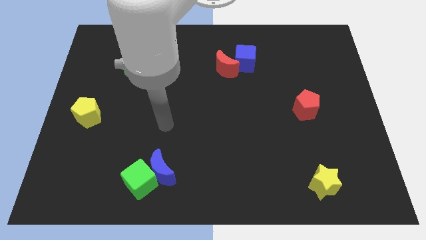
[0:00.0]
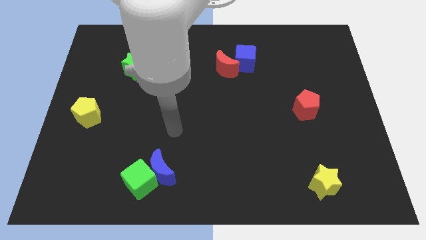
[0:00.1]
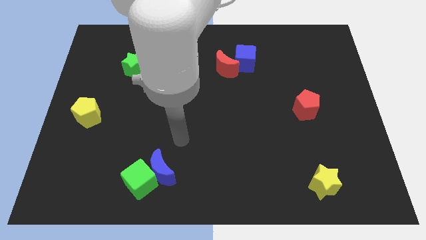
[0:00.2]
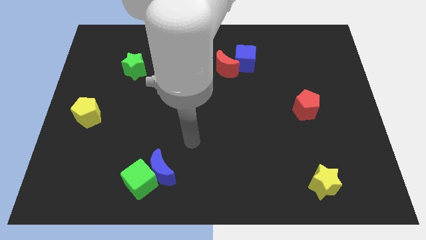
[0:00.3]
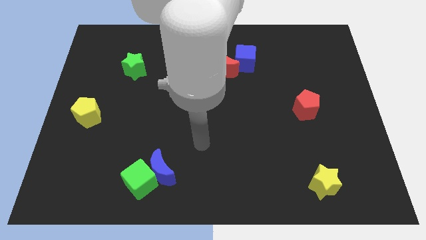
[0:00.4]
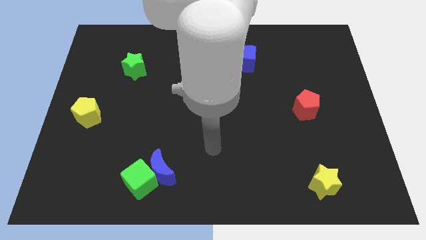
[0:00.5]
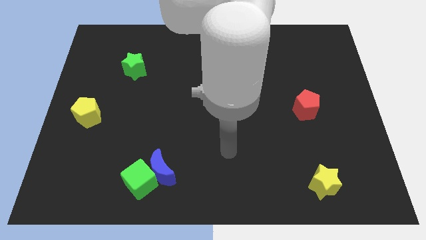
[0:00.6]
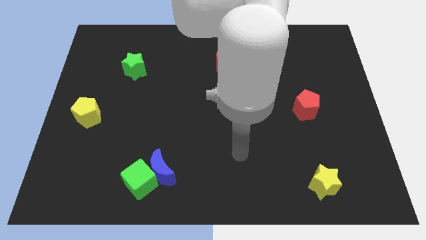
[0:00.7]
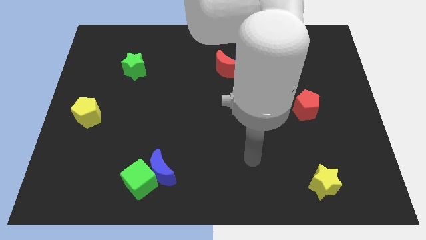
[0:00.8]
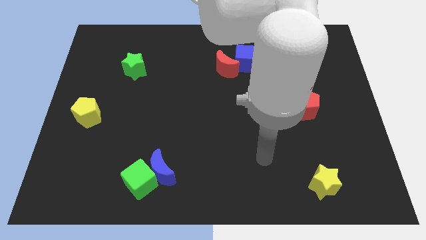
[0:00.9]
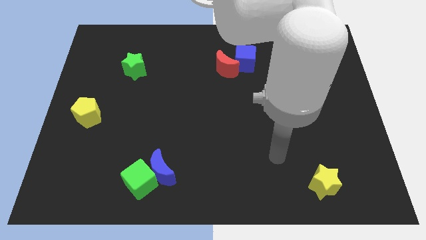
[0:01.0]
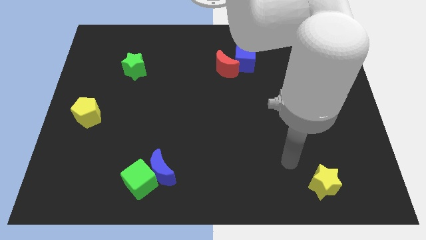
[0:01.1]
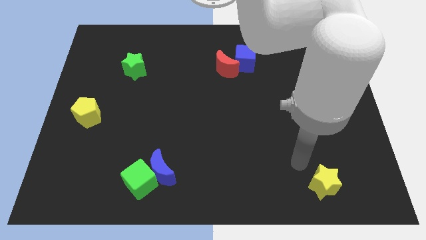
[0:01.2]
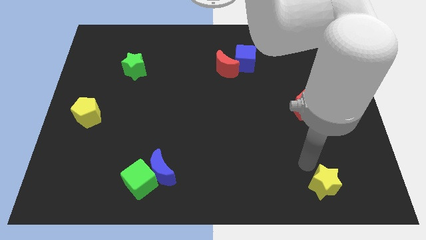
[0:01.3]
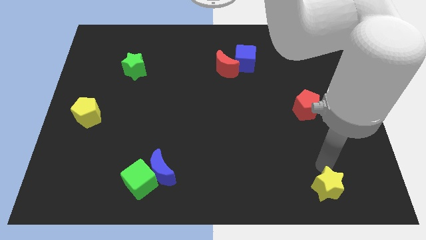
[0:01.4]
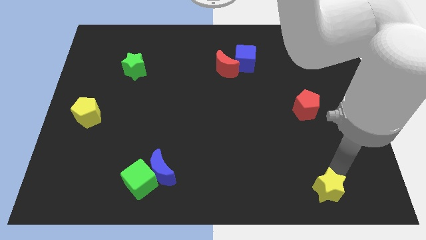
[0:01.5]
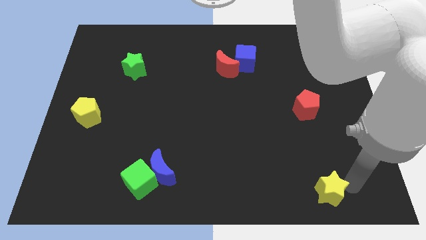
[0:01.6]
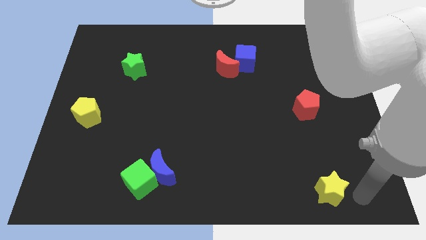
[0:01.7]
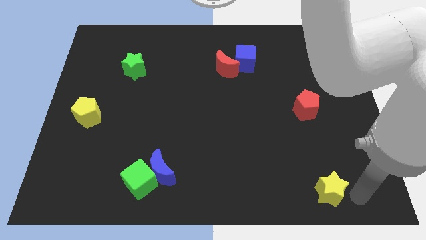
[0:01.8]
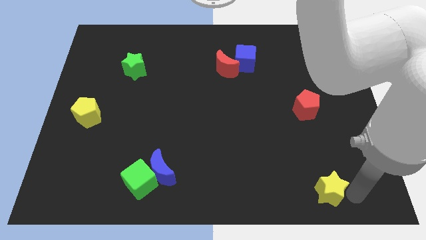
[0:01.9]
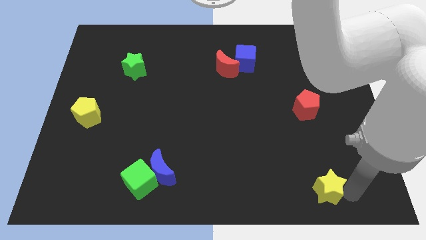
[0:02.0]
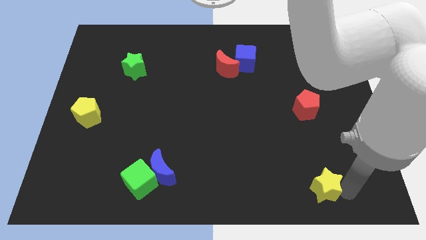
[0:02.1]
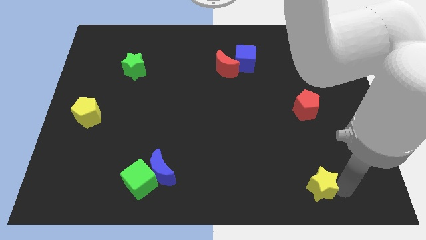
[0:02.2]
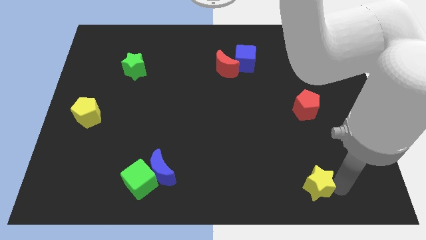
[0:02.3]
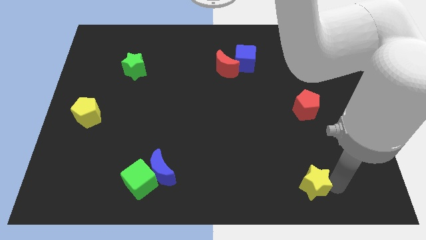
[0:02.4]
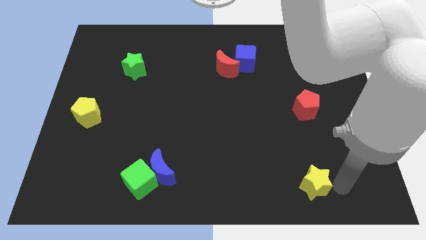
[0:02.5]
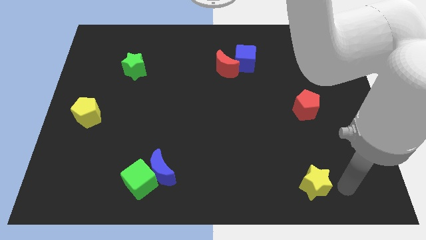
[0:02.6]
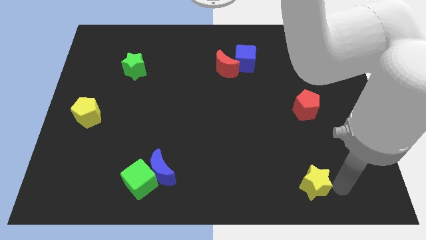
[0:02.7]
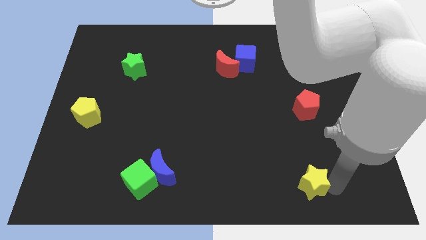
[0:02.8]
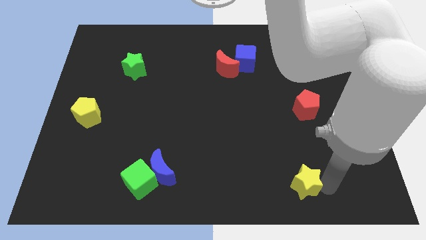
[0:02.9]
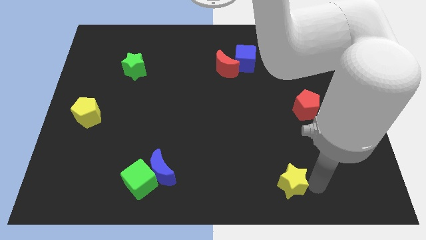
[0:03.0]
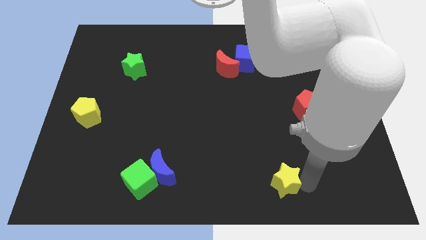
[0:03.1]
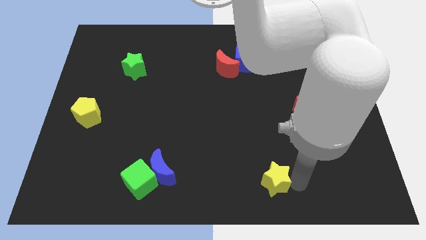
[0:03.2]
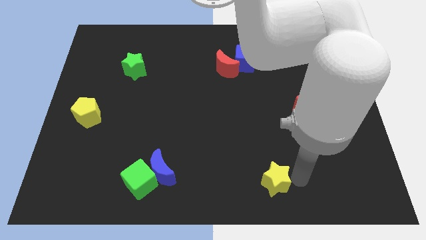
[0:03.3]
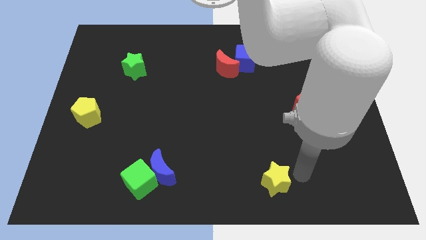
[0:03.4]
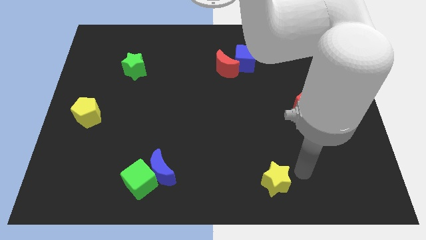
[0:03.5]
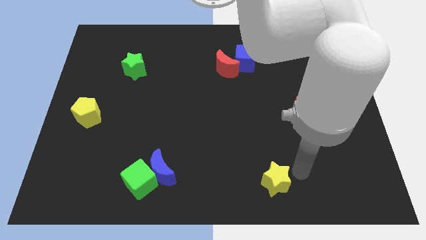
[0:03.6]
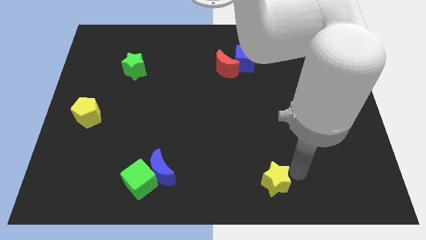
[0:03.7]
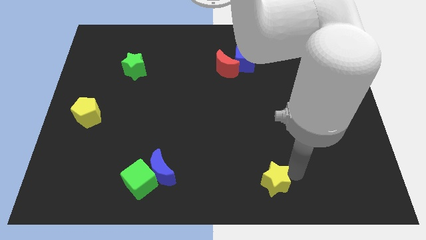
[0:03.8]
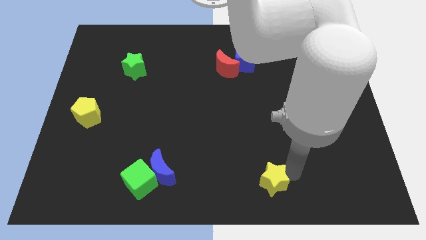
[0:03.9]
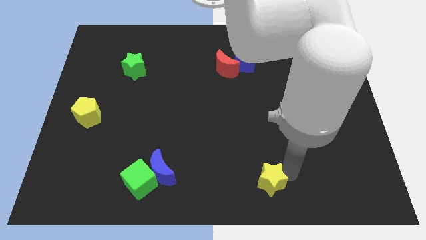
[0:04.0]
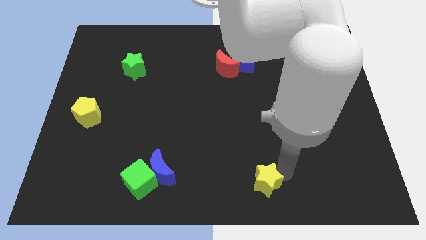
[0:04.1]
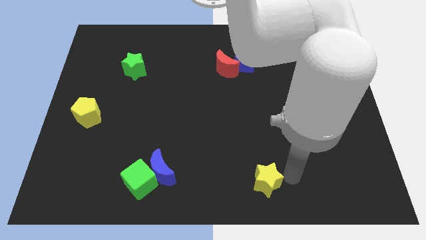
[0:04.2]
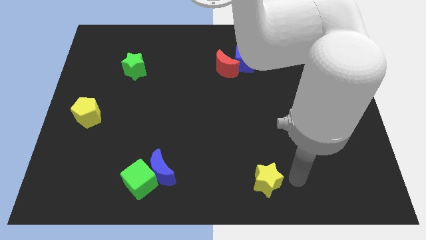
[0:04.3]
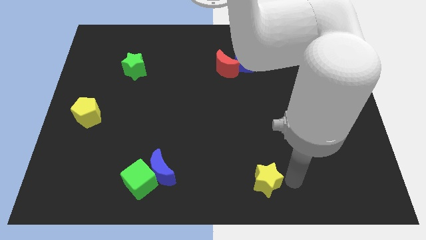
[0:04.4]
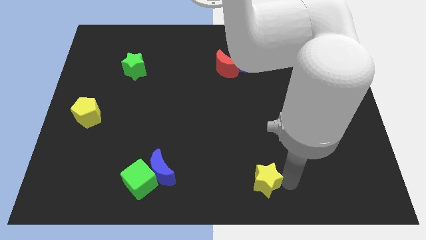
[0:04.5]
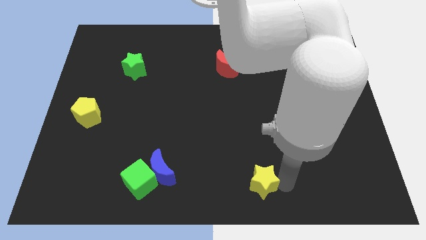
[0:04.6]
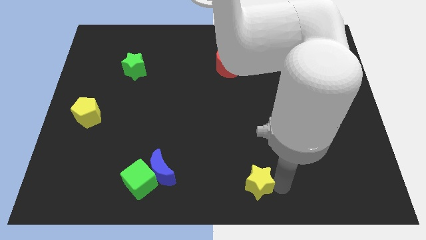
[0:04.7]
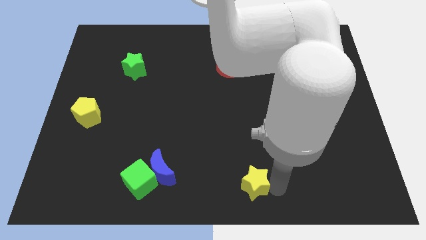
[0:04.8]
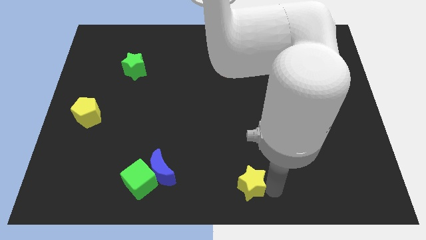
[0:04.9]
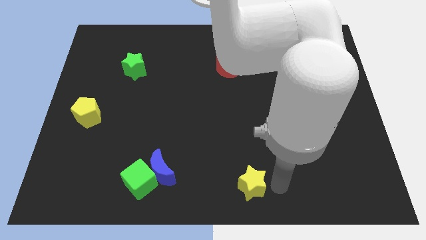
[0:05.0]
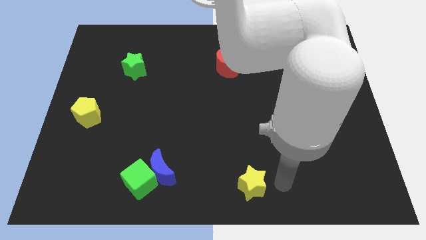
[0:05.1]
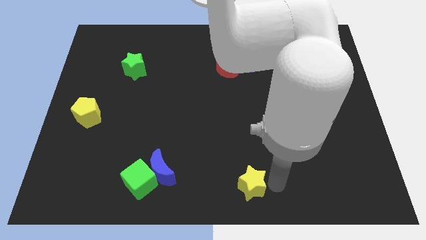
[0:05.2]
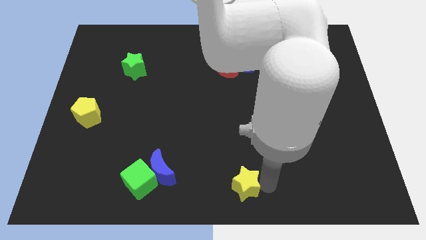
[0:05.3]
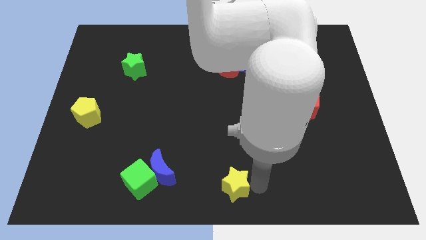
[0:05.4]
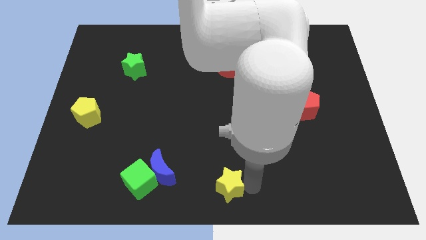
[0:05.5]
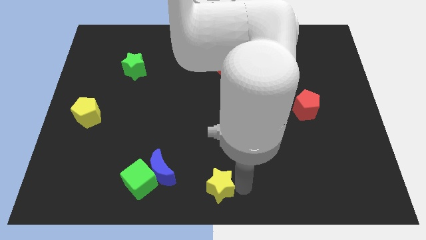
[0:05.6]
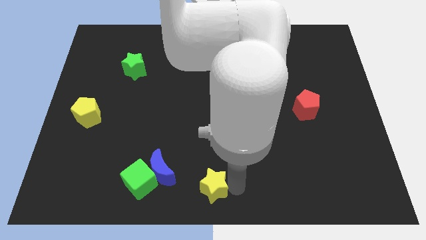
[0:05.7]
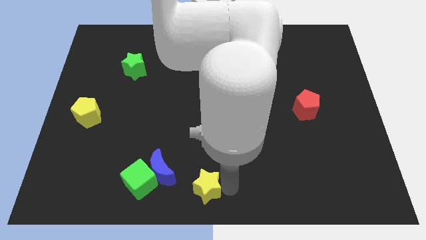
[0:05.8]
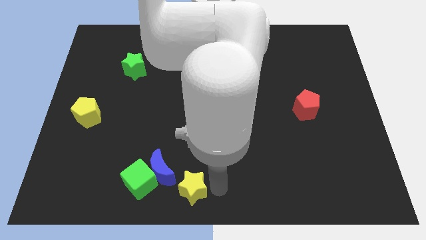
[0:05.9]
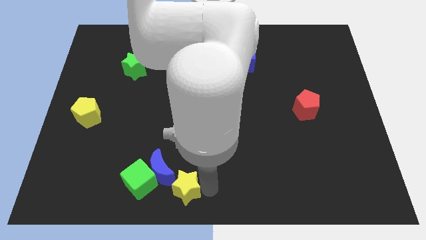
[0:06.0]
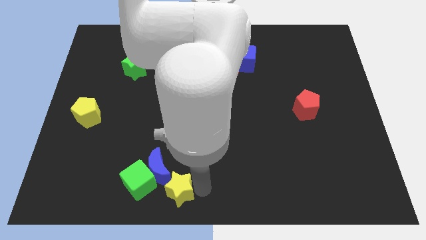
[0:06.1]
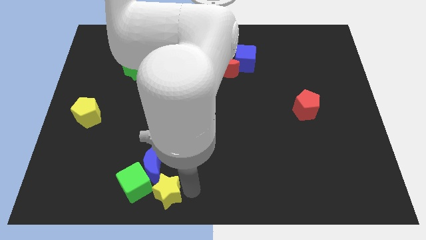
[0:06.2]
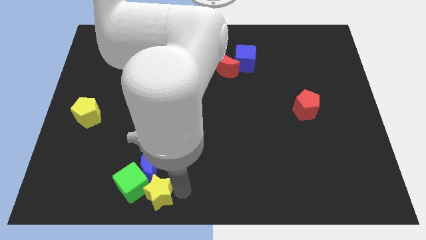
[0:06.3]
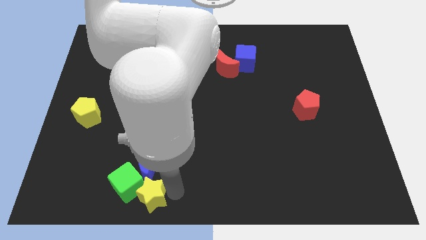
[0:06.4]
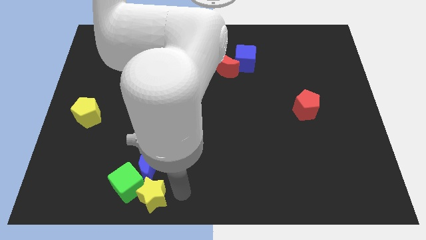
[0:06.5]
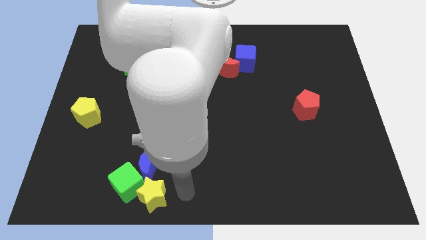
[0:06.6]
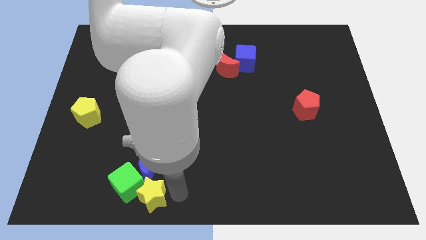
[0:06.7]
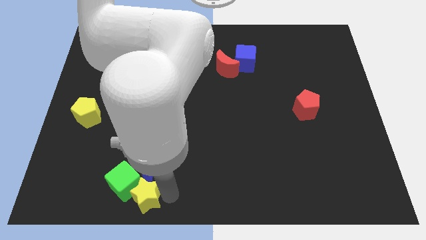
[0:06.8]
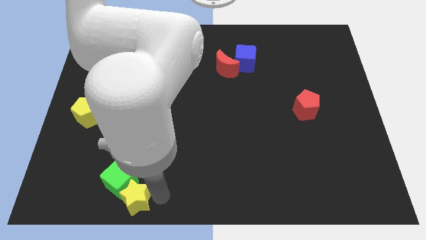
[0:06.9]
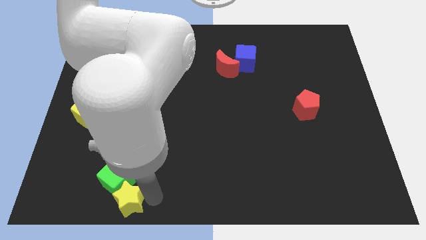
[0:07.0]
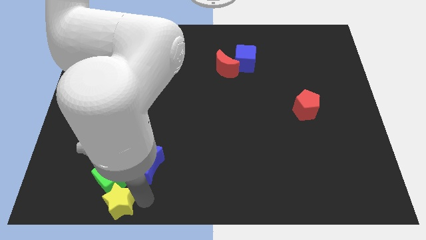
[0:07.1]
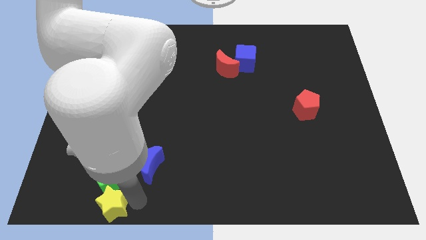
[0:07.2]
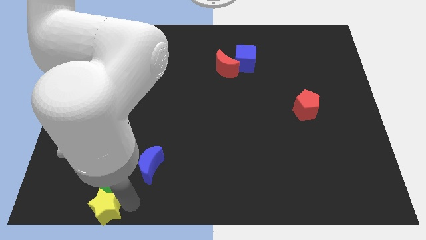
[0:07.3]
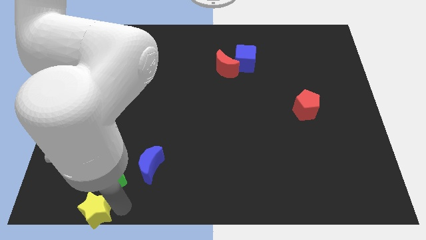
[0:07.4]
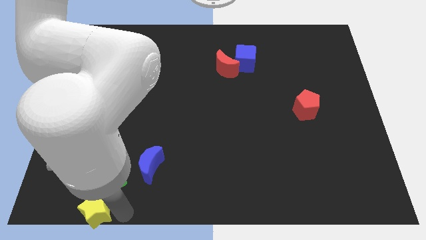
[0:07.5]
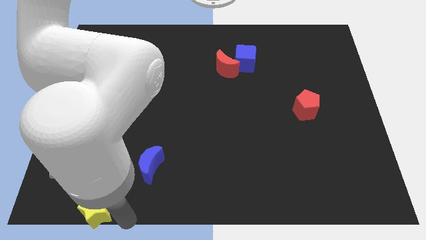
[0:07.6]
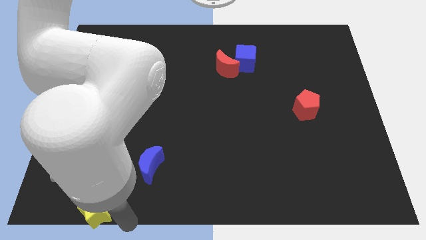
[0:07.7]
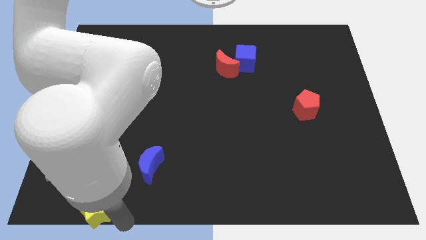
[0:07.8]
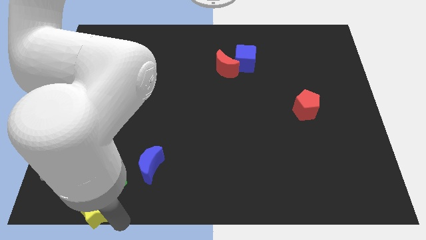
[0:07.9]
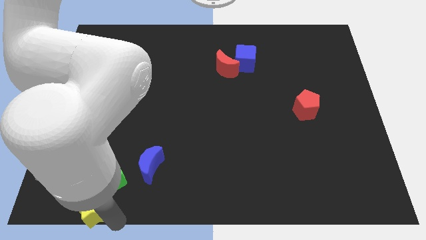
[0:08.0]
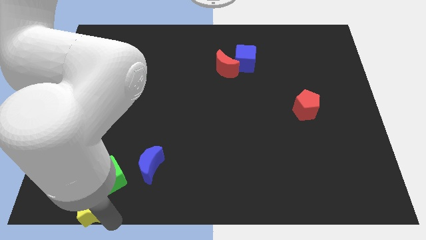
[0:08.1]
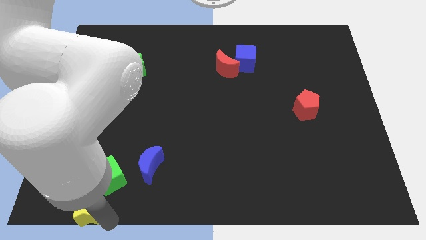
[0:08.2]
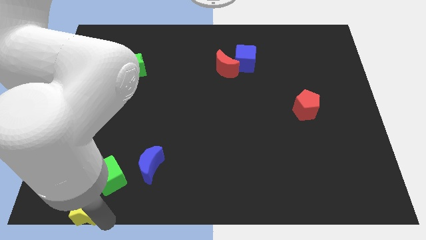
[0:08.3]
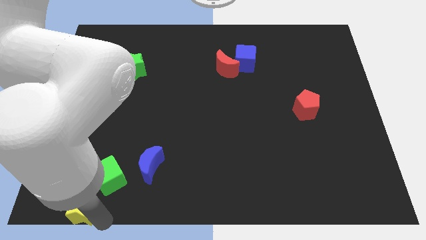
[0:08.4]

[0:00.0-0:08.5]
slide the yellow star to the bottom left of the board
